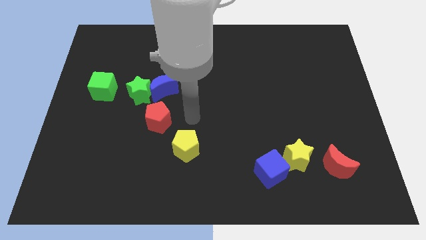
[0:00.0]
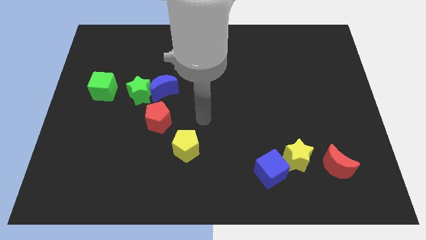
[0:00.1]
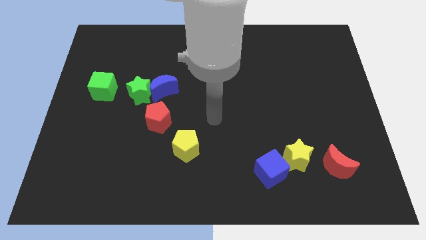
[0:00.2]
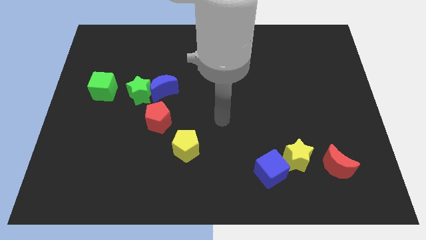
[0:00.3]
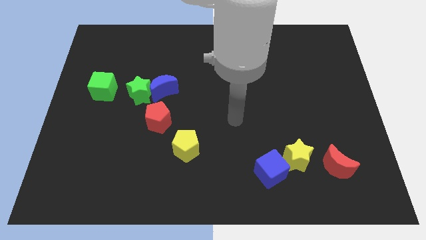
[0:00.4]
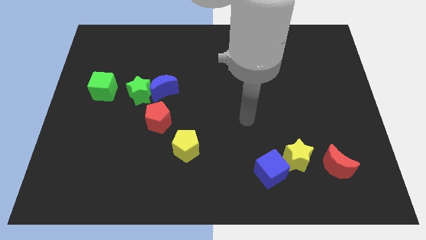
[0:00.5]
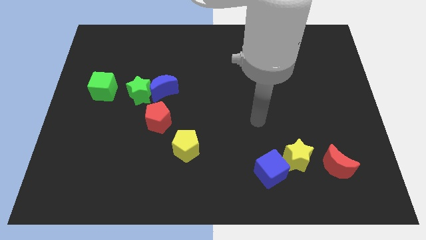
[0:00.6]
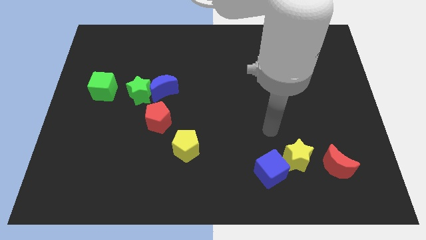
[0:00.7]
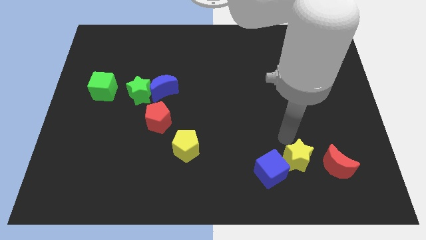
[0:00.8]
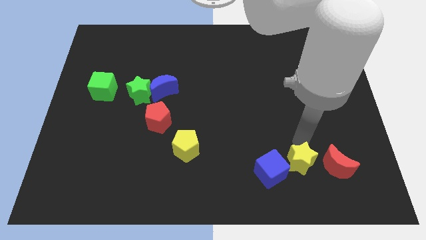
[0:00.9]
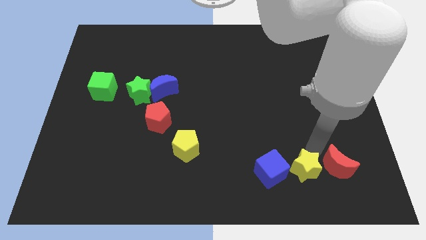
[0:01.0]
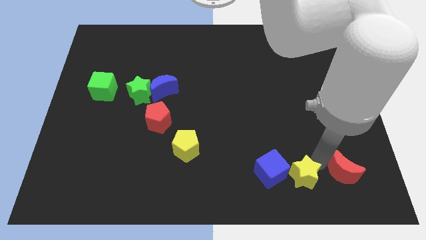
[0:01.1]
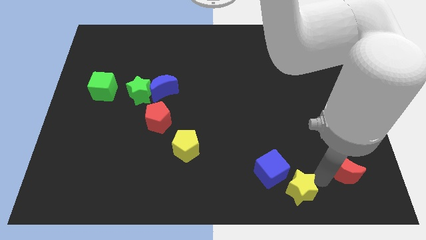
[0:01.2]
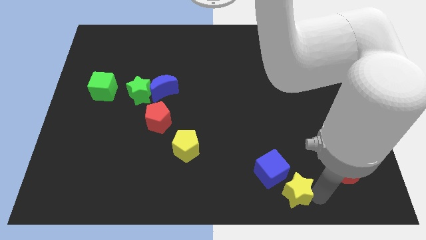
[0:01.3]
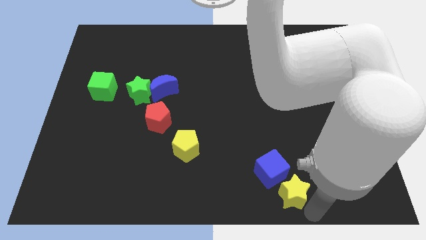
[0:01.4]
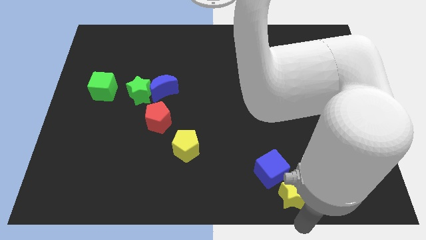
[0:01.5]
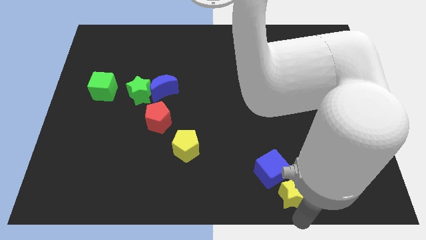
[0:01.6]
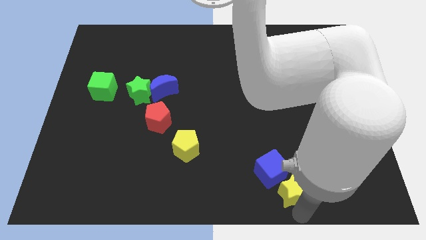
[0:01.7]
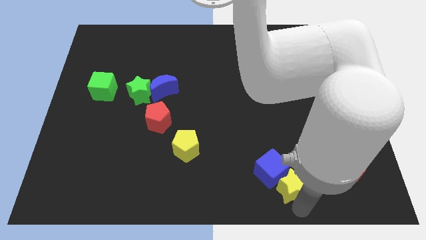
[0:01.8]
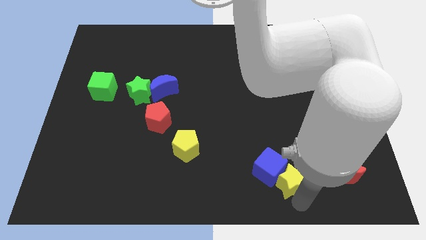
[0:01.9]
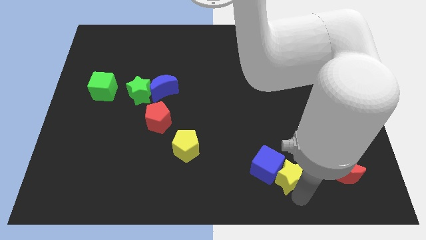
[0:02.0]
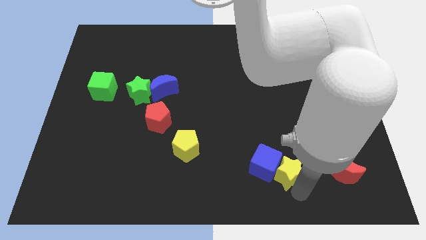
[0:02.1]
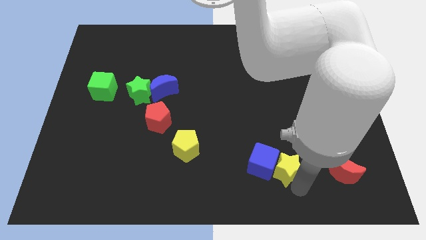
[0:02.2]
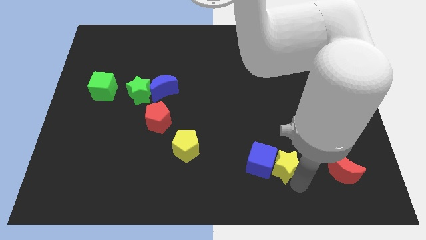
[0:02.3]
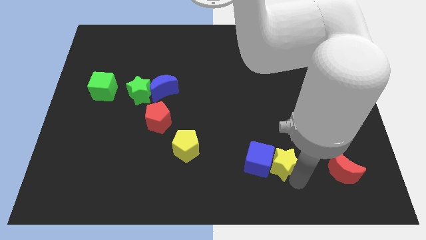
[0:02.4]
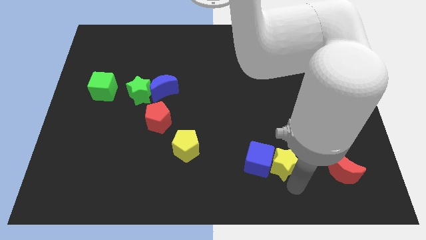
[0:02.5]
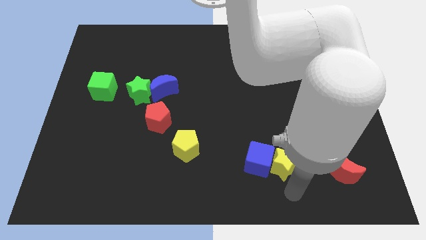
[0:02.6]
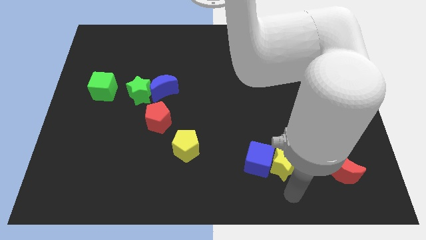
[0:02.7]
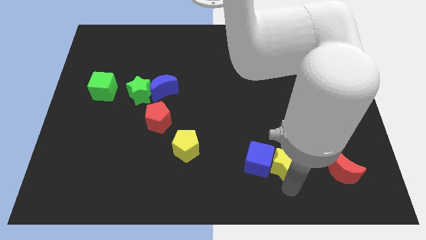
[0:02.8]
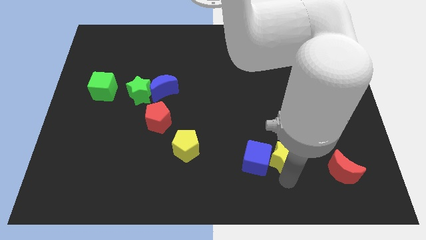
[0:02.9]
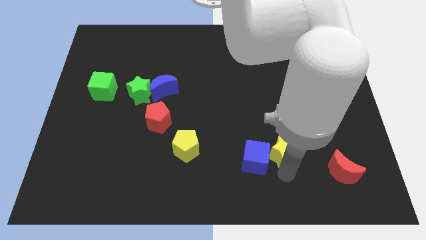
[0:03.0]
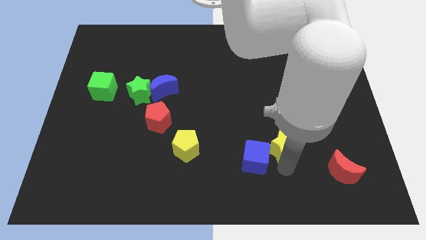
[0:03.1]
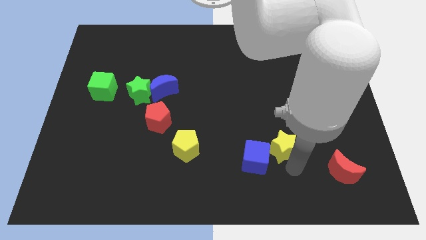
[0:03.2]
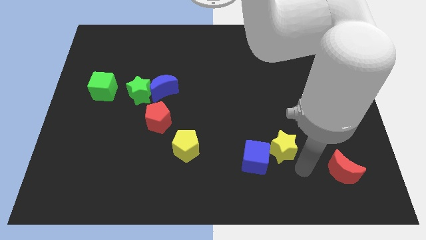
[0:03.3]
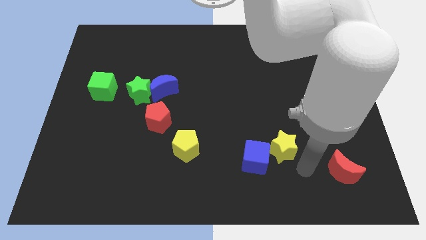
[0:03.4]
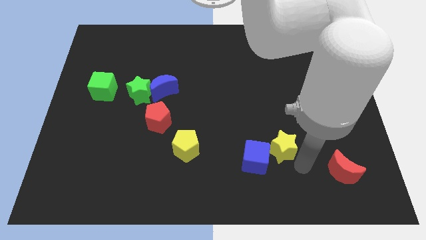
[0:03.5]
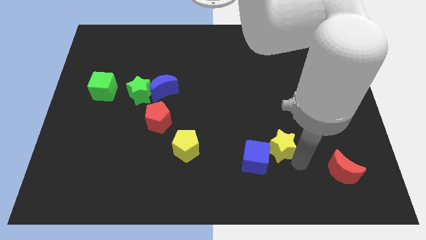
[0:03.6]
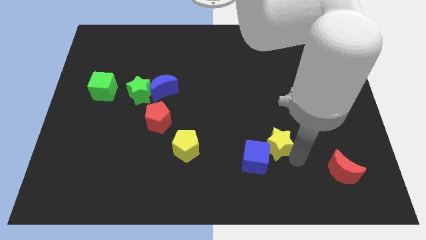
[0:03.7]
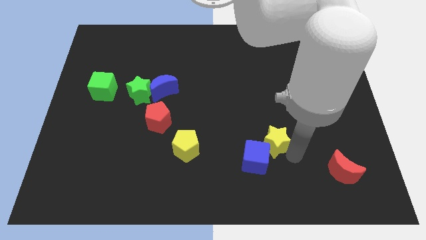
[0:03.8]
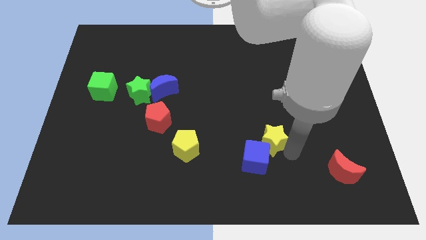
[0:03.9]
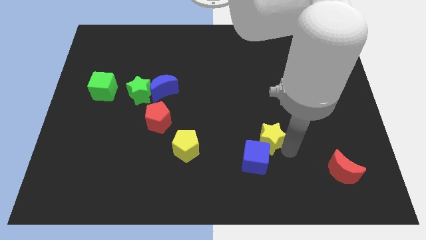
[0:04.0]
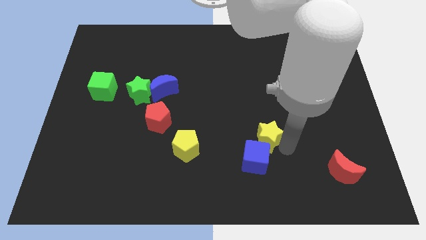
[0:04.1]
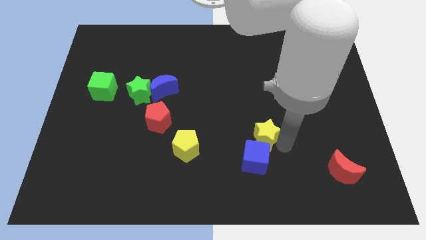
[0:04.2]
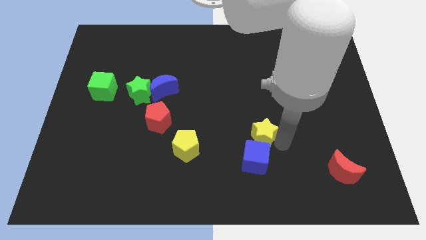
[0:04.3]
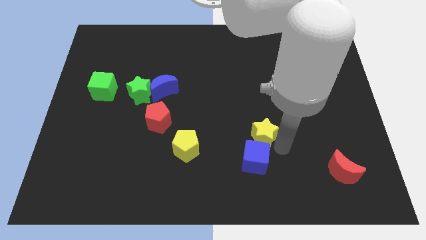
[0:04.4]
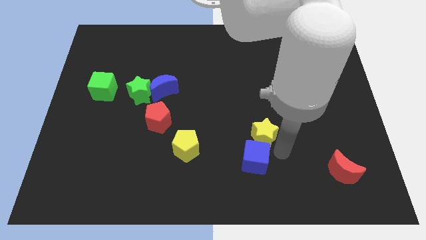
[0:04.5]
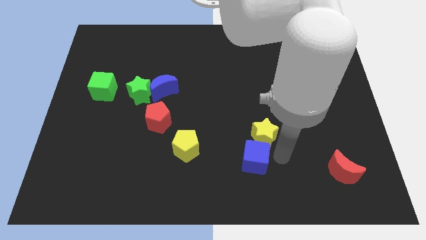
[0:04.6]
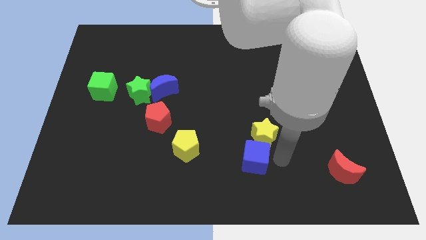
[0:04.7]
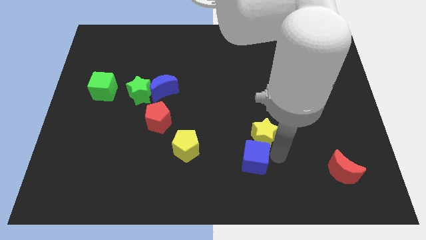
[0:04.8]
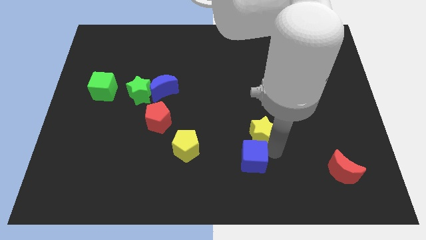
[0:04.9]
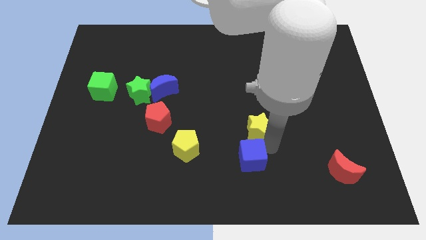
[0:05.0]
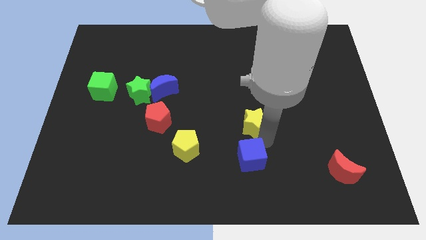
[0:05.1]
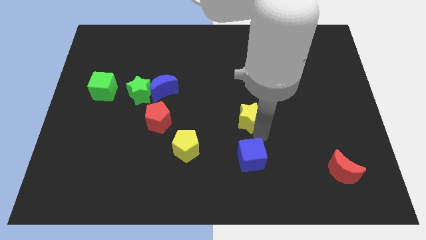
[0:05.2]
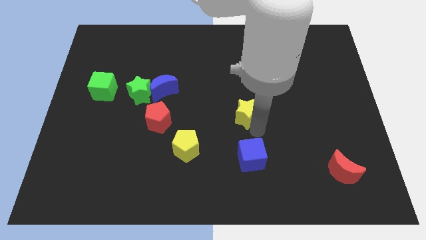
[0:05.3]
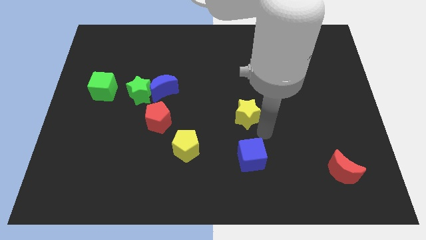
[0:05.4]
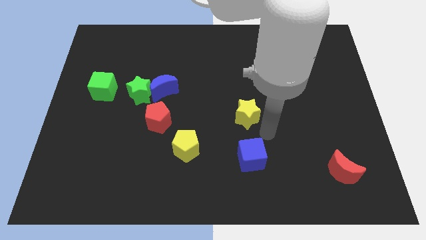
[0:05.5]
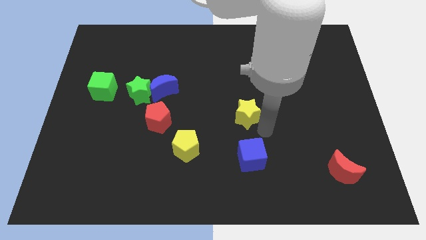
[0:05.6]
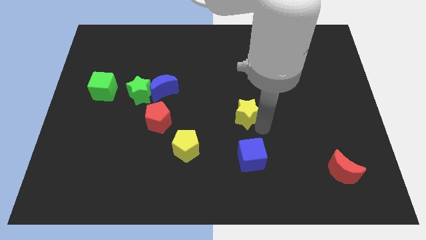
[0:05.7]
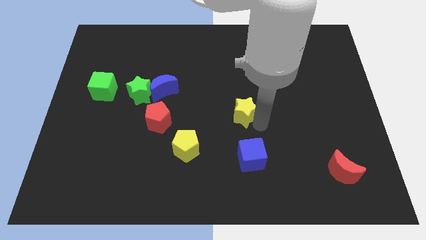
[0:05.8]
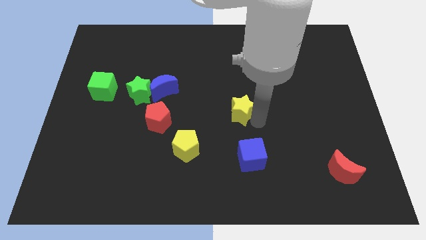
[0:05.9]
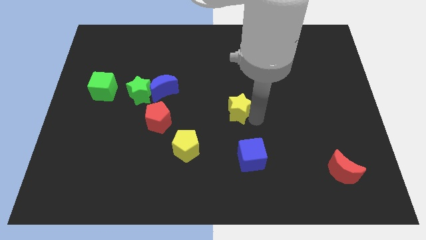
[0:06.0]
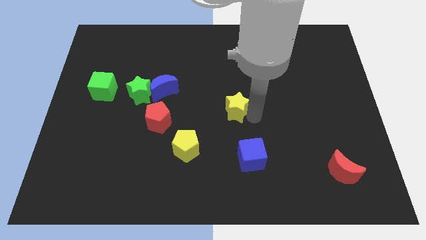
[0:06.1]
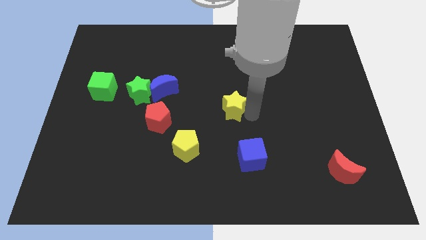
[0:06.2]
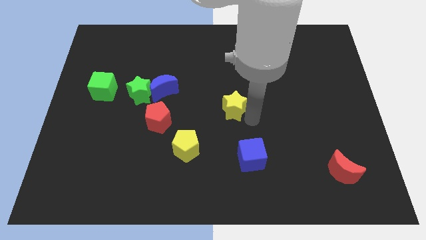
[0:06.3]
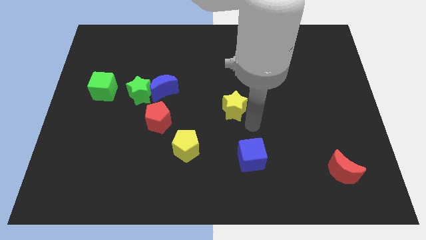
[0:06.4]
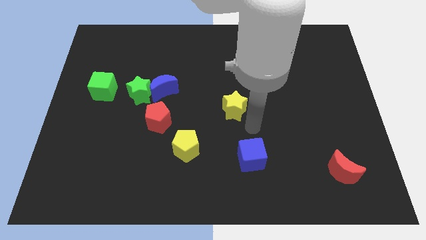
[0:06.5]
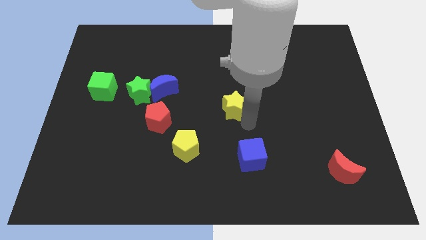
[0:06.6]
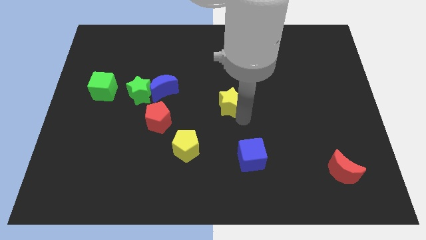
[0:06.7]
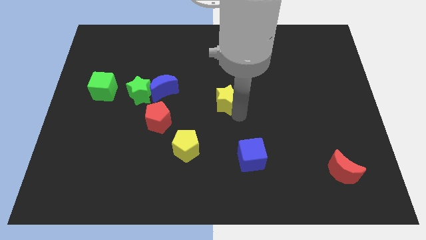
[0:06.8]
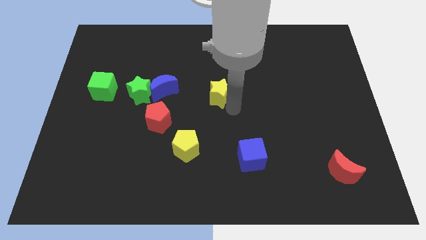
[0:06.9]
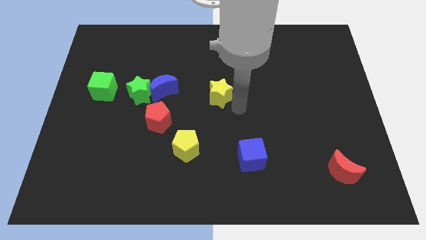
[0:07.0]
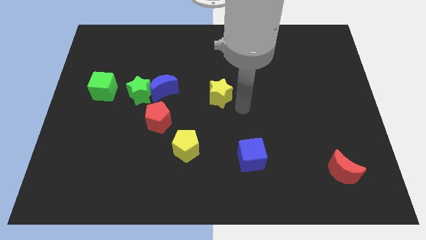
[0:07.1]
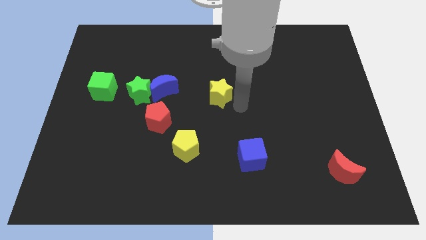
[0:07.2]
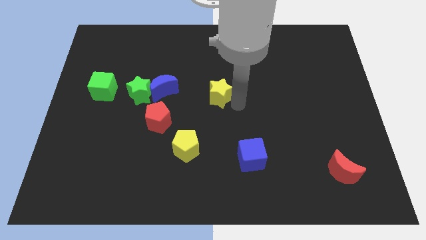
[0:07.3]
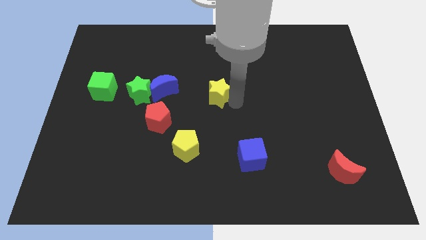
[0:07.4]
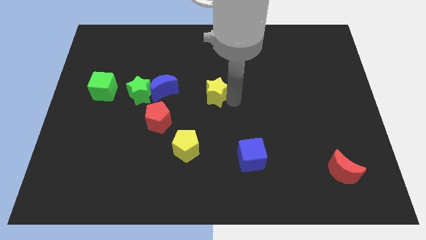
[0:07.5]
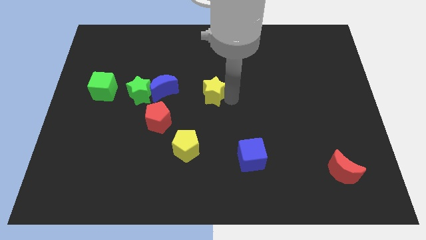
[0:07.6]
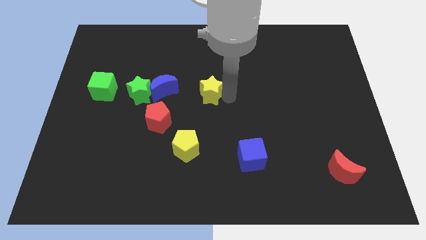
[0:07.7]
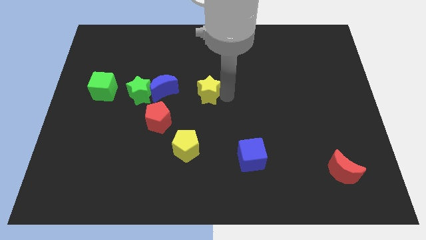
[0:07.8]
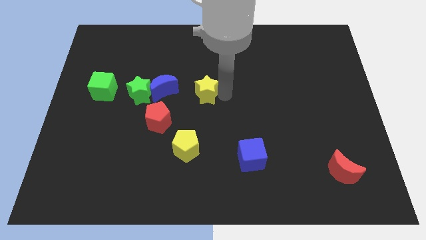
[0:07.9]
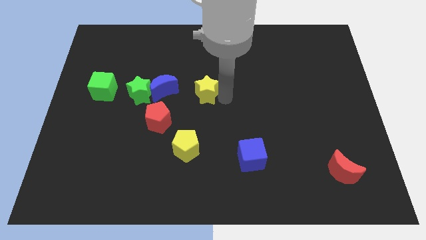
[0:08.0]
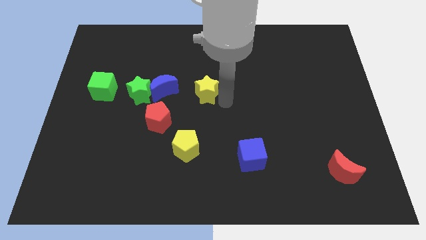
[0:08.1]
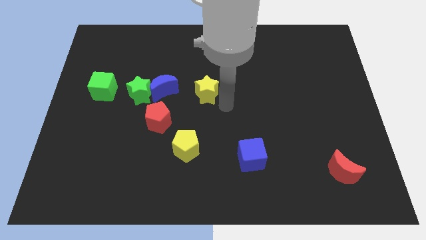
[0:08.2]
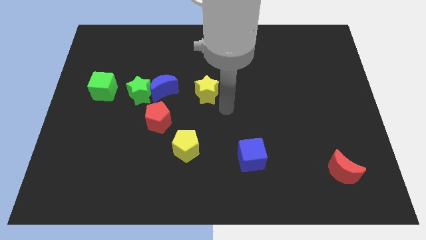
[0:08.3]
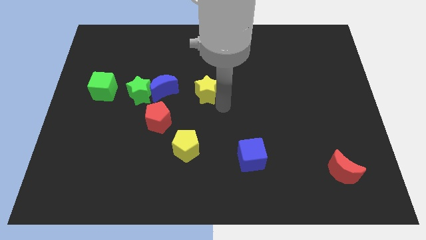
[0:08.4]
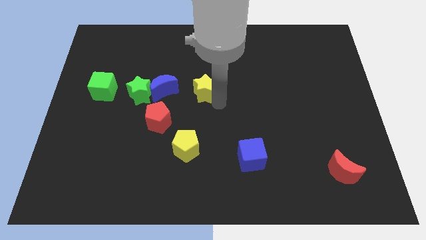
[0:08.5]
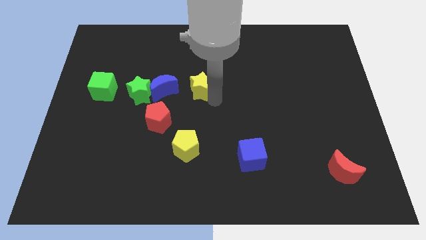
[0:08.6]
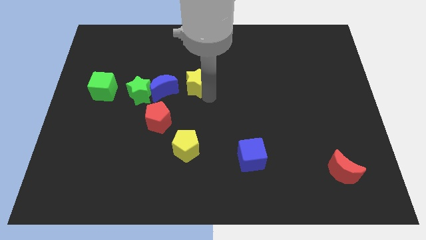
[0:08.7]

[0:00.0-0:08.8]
move the yellow star to the top right of the blue moon
